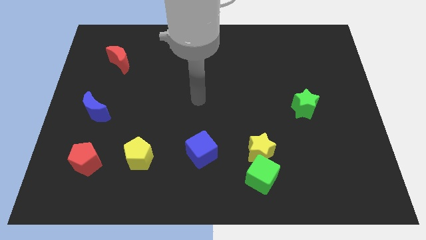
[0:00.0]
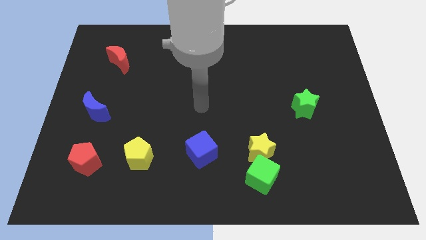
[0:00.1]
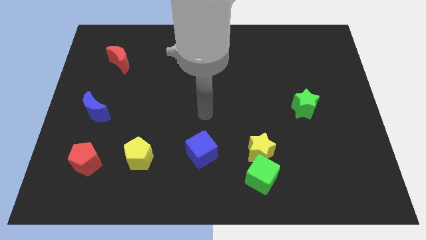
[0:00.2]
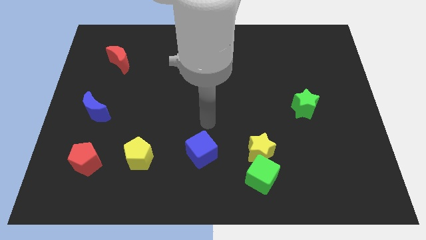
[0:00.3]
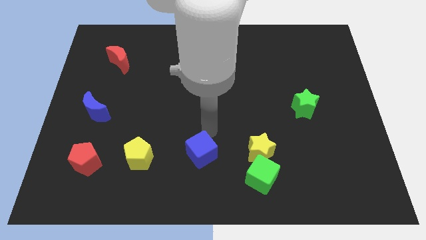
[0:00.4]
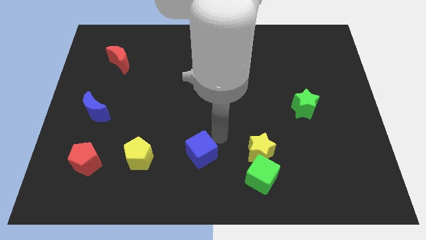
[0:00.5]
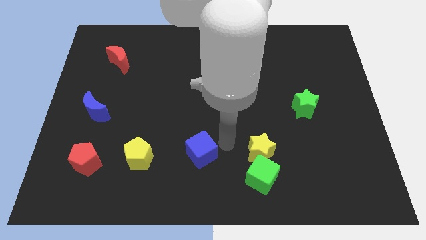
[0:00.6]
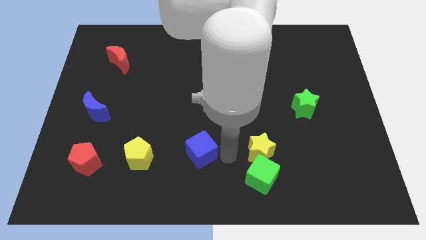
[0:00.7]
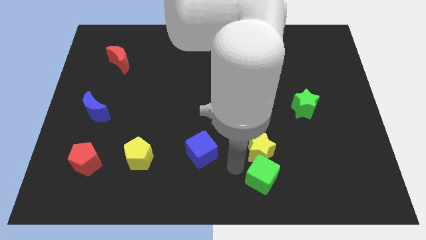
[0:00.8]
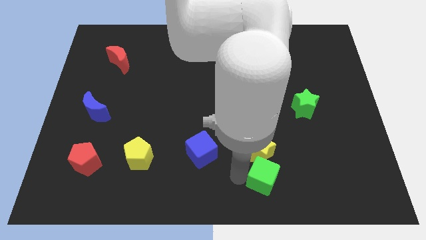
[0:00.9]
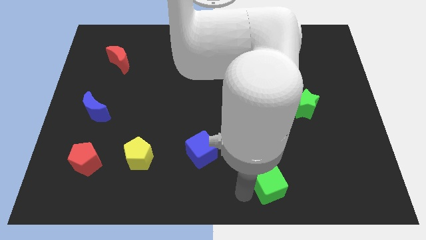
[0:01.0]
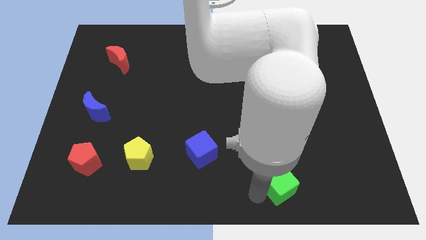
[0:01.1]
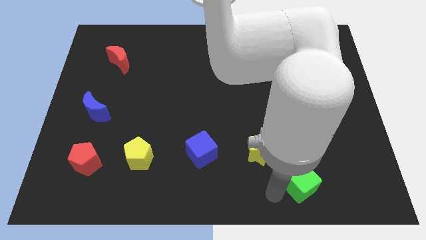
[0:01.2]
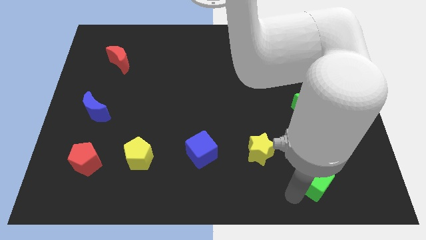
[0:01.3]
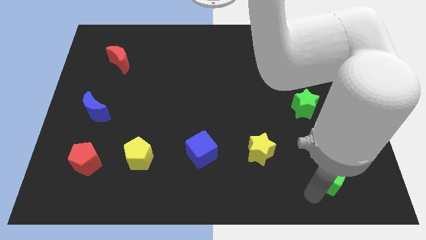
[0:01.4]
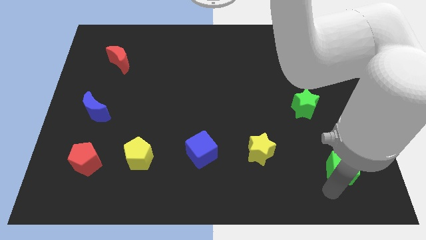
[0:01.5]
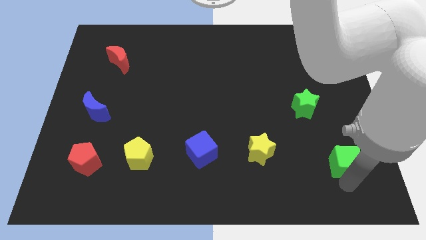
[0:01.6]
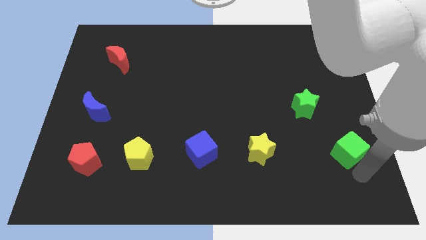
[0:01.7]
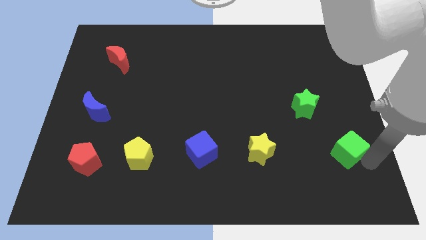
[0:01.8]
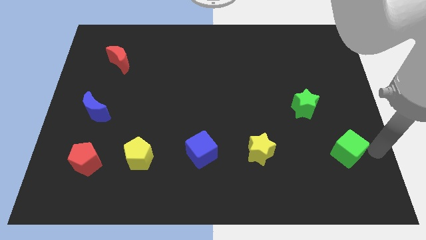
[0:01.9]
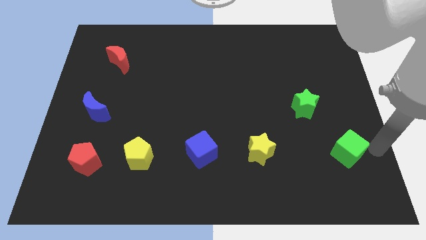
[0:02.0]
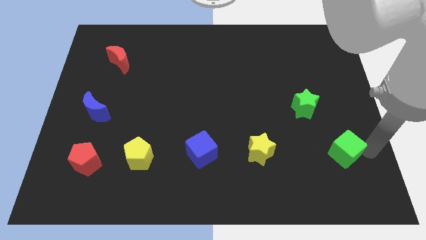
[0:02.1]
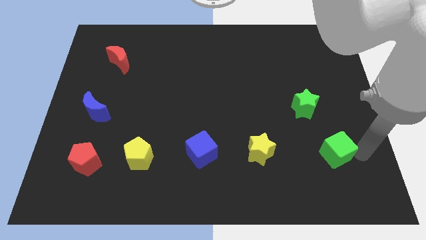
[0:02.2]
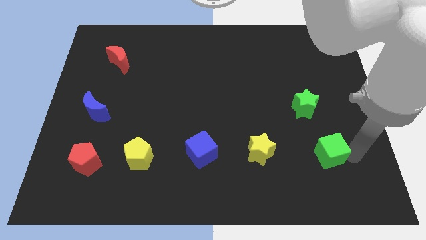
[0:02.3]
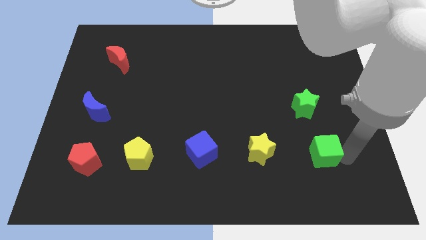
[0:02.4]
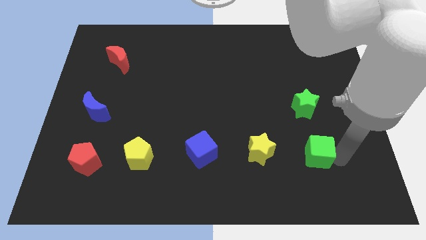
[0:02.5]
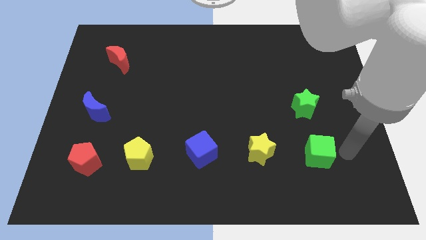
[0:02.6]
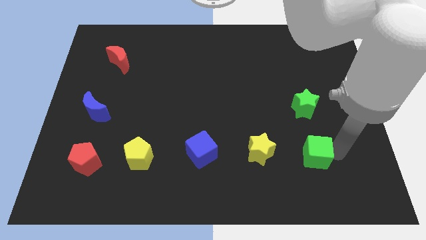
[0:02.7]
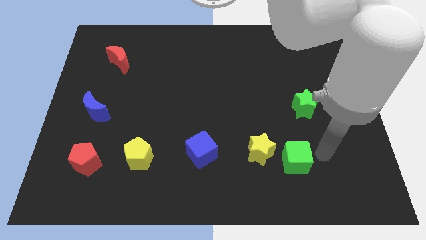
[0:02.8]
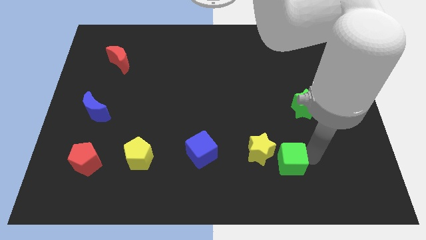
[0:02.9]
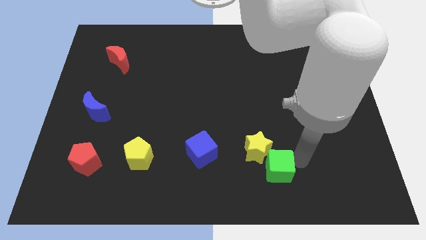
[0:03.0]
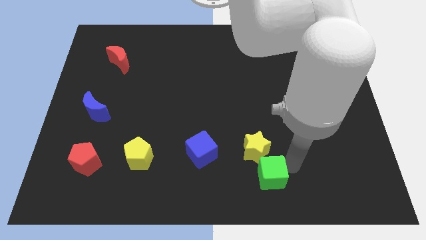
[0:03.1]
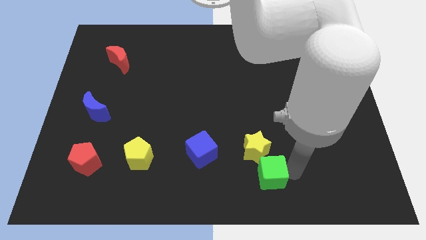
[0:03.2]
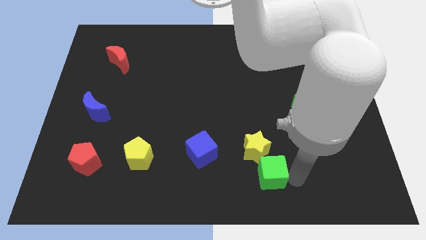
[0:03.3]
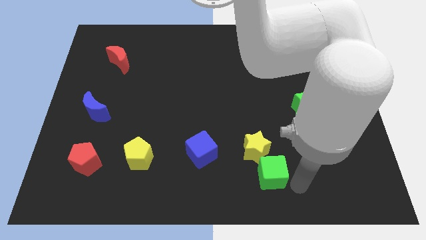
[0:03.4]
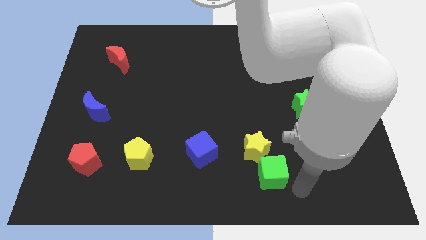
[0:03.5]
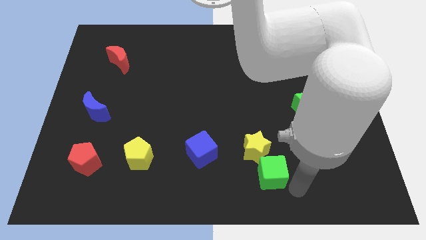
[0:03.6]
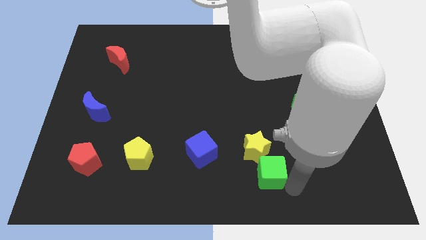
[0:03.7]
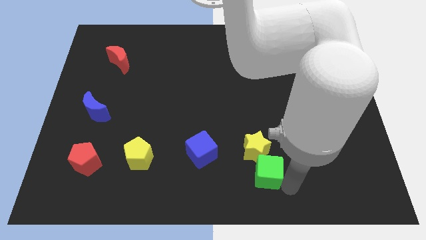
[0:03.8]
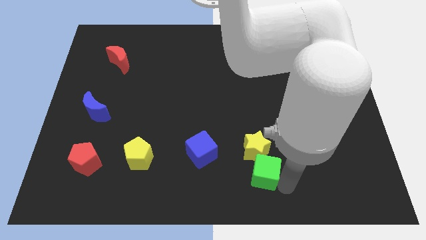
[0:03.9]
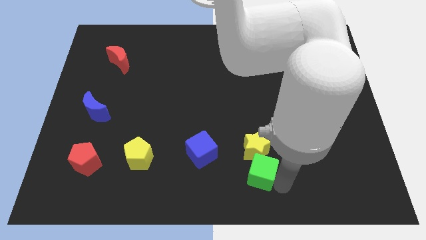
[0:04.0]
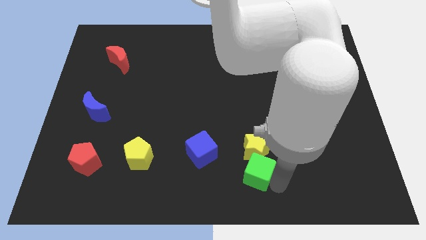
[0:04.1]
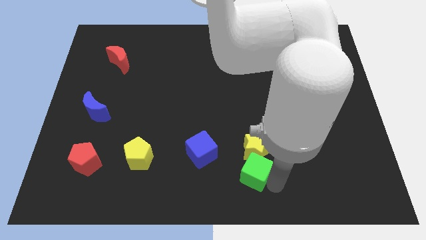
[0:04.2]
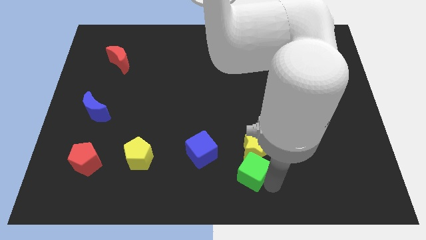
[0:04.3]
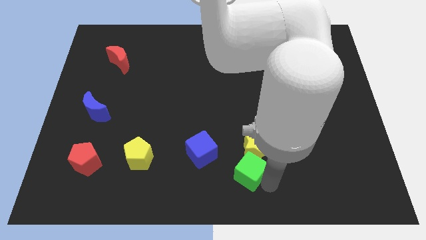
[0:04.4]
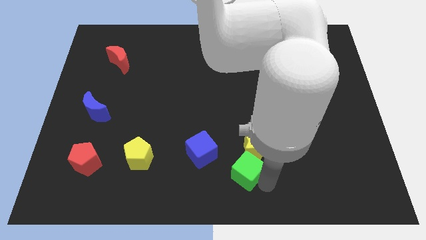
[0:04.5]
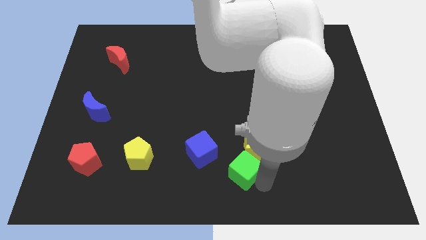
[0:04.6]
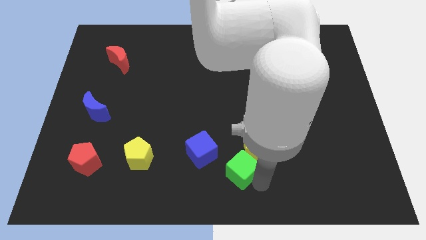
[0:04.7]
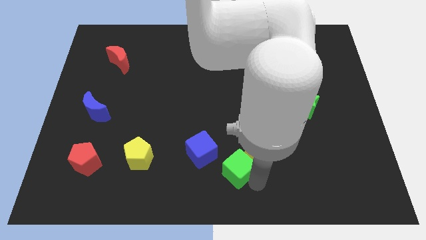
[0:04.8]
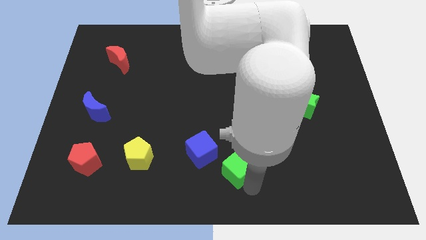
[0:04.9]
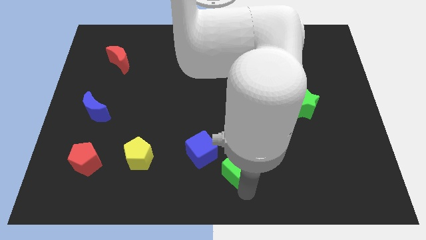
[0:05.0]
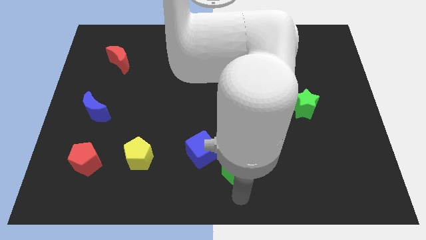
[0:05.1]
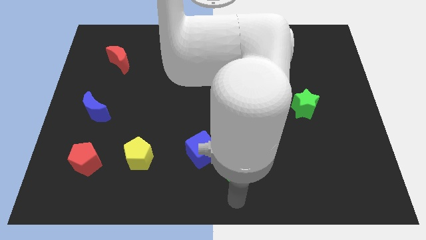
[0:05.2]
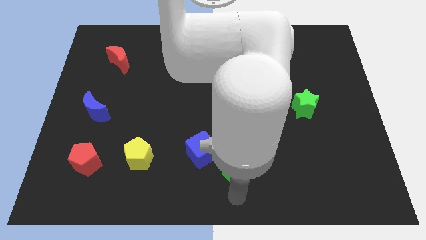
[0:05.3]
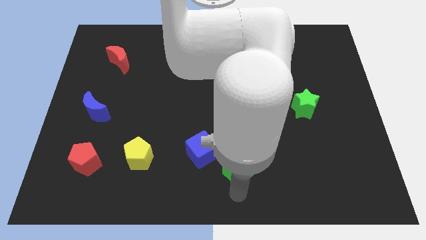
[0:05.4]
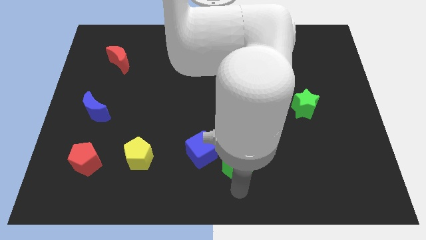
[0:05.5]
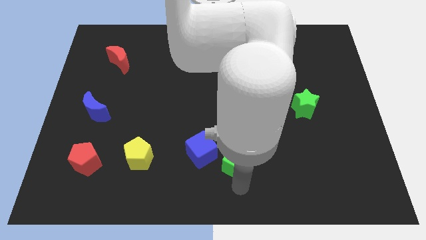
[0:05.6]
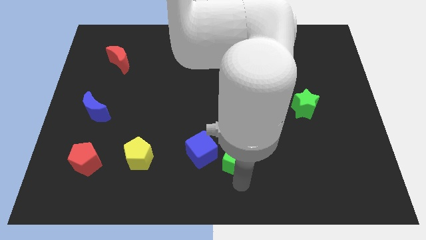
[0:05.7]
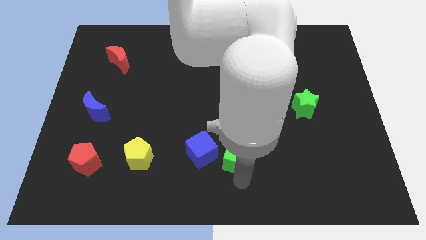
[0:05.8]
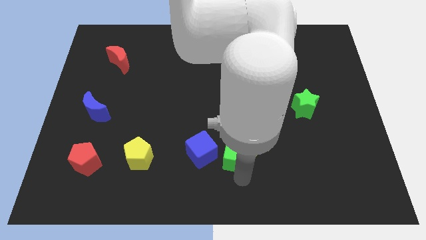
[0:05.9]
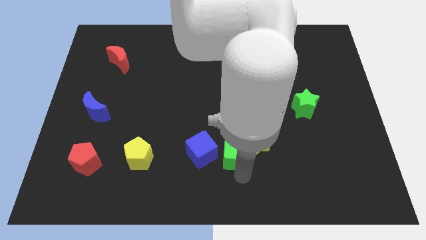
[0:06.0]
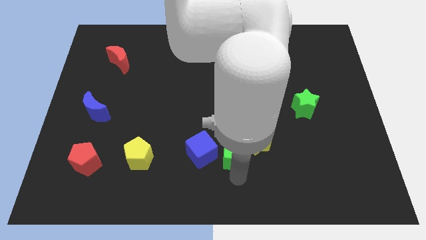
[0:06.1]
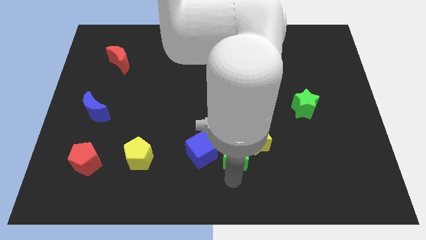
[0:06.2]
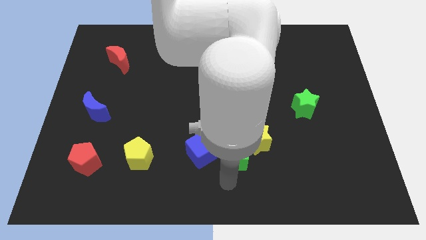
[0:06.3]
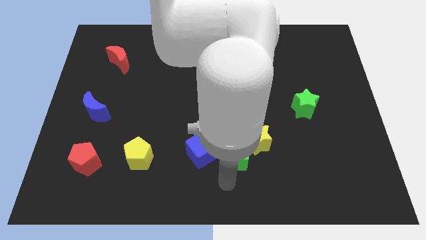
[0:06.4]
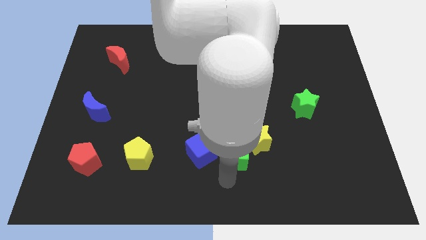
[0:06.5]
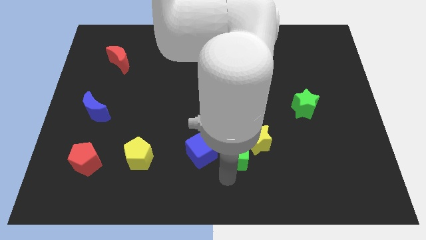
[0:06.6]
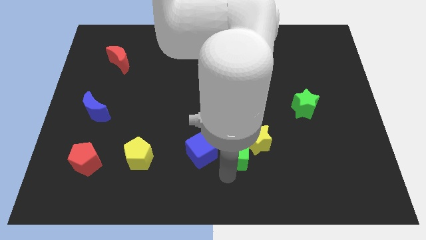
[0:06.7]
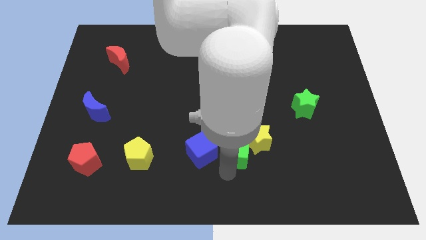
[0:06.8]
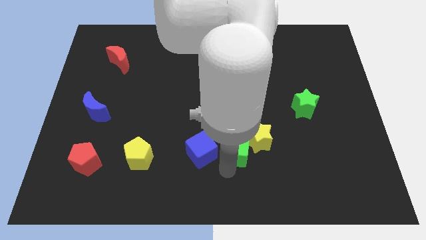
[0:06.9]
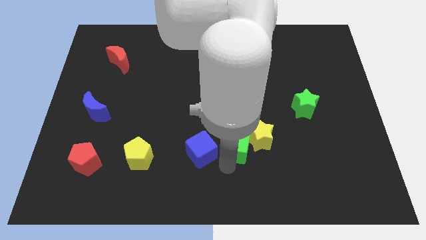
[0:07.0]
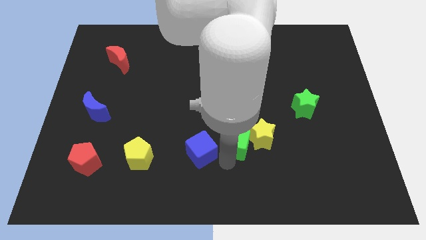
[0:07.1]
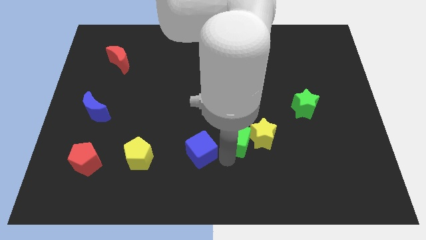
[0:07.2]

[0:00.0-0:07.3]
slide the green cube up a bit

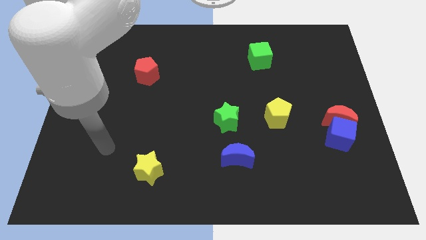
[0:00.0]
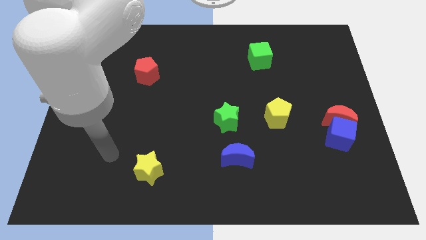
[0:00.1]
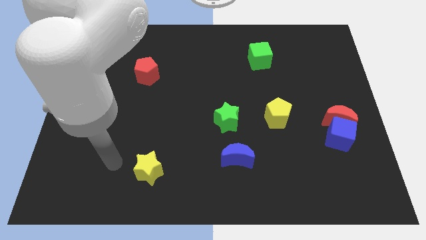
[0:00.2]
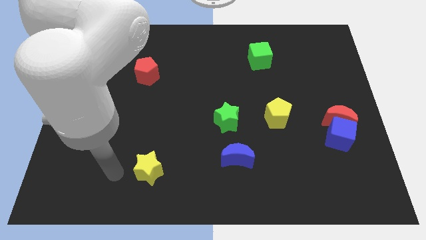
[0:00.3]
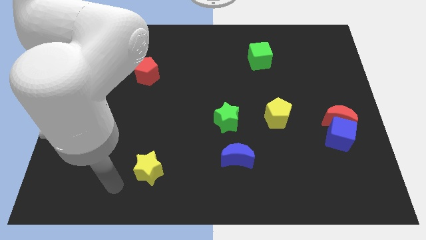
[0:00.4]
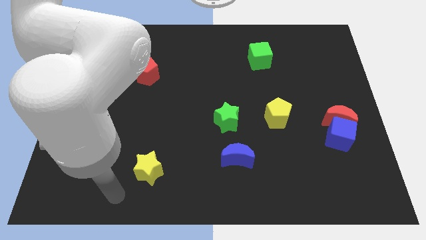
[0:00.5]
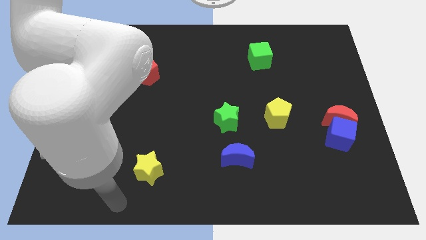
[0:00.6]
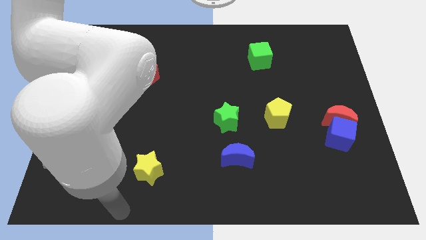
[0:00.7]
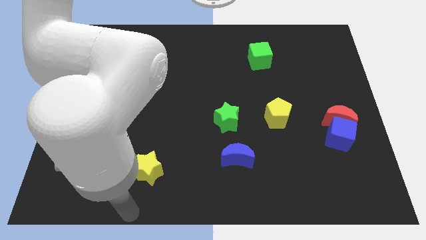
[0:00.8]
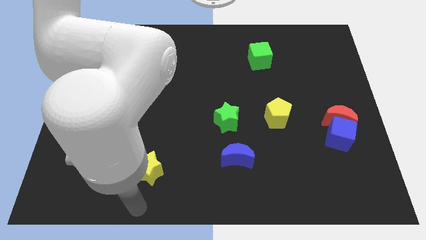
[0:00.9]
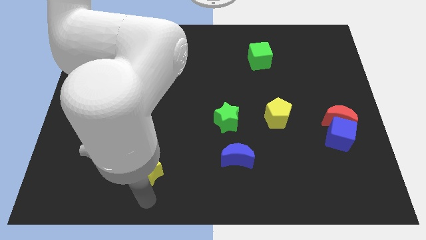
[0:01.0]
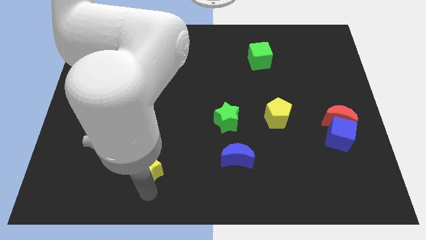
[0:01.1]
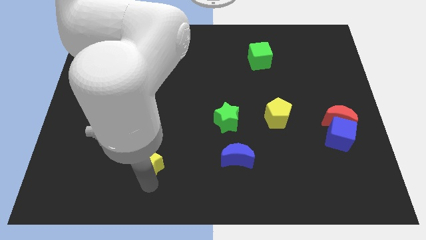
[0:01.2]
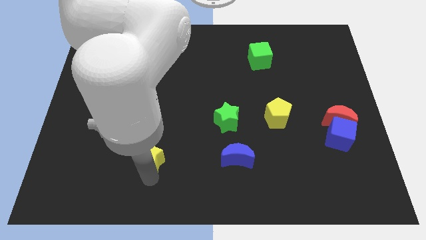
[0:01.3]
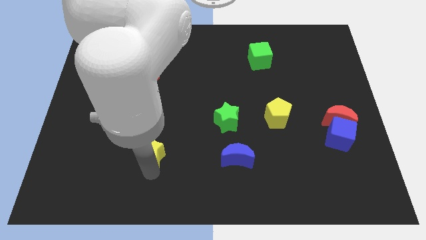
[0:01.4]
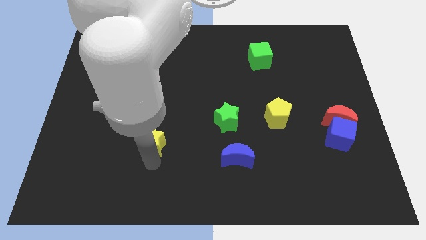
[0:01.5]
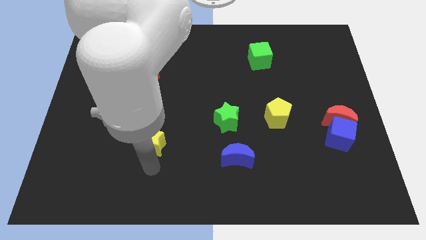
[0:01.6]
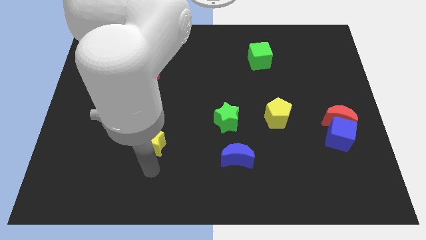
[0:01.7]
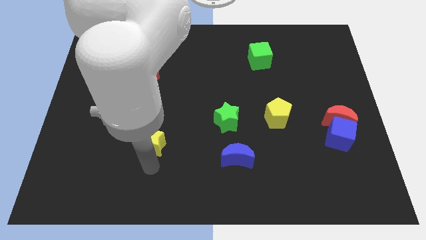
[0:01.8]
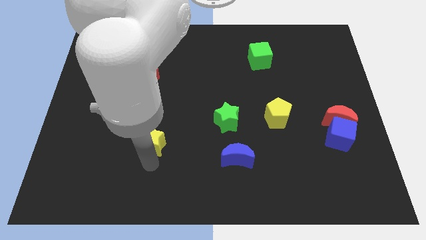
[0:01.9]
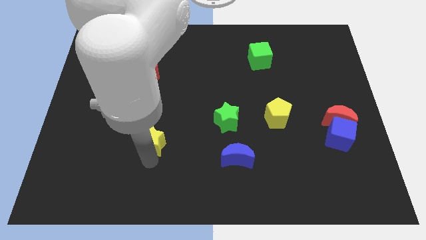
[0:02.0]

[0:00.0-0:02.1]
slightly move the yellow star upwards
